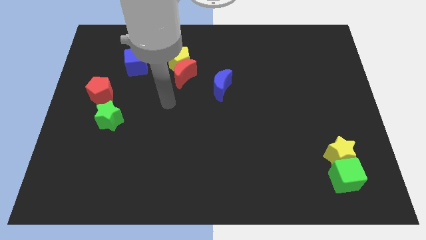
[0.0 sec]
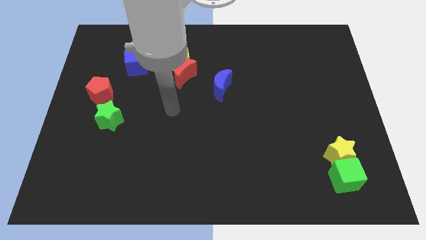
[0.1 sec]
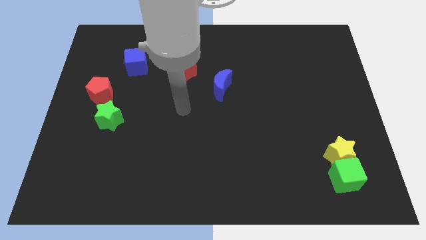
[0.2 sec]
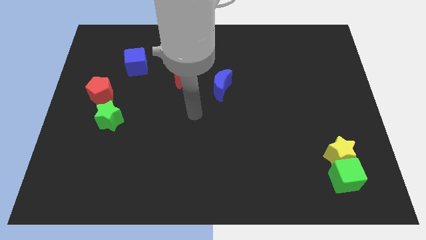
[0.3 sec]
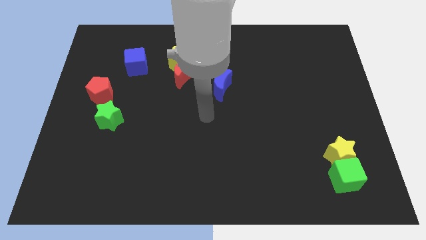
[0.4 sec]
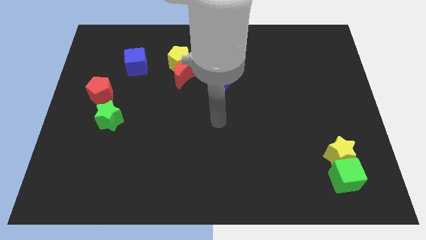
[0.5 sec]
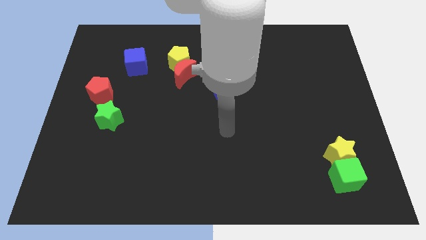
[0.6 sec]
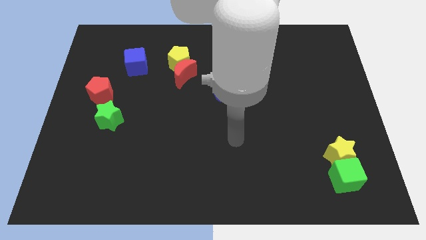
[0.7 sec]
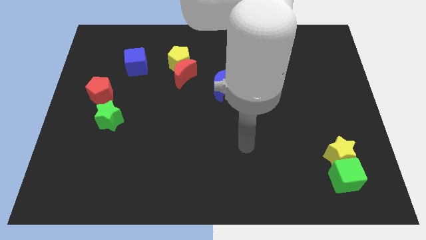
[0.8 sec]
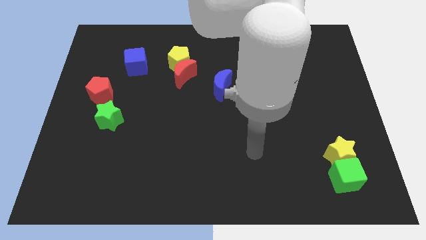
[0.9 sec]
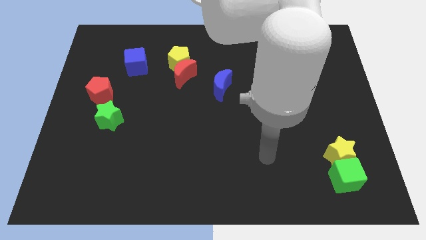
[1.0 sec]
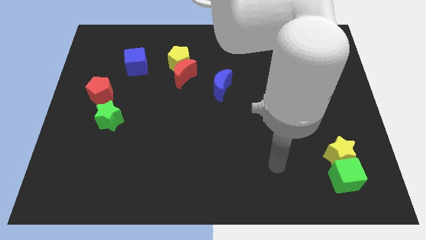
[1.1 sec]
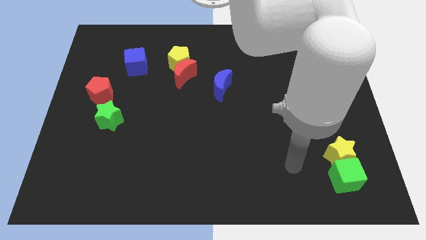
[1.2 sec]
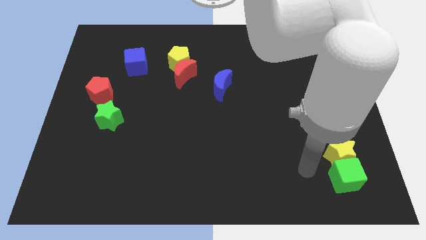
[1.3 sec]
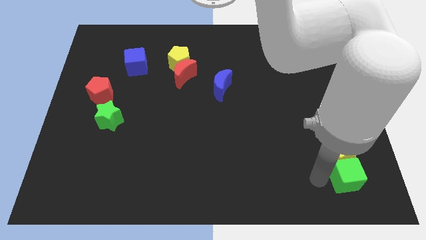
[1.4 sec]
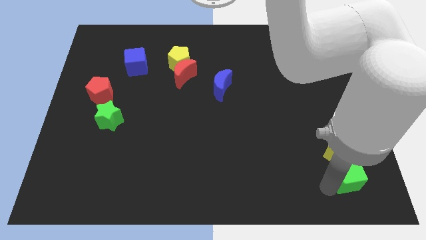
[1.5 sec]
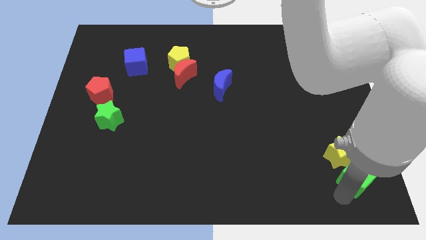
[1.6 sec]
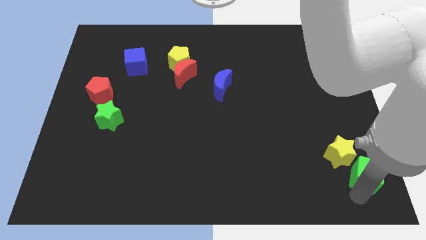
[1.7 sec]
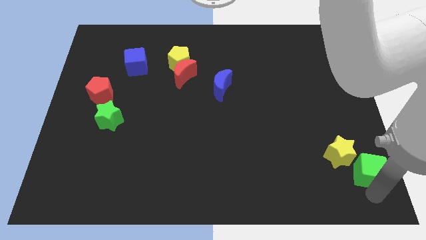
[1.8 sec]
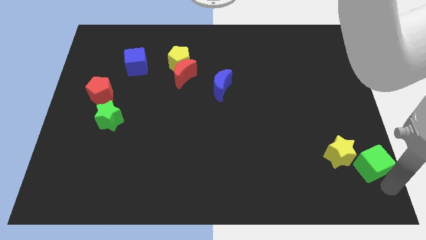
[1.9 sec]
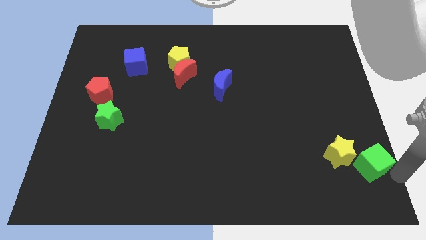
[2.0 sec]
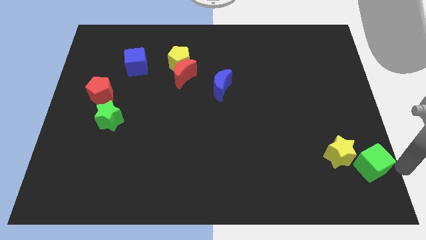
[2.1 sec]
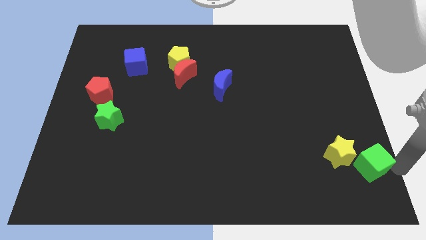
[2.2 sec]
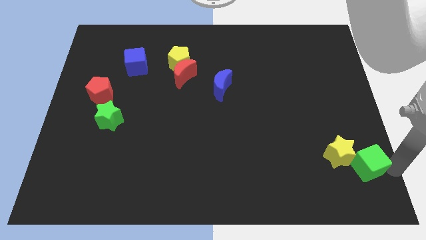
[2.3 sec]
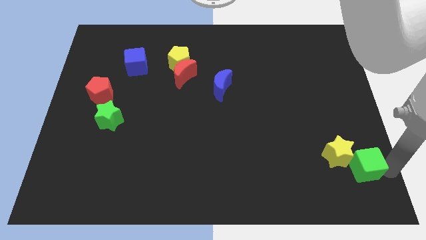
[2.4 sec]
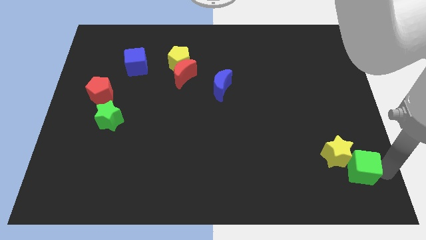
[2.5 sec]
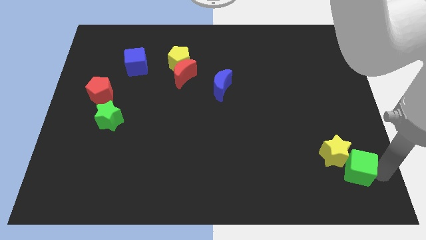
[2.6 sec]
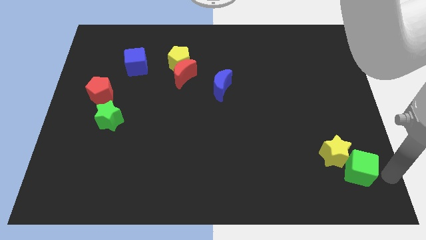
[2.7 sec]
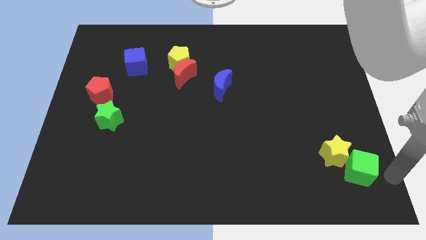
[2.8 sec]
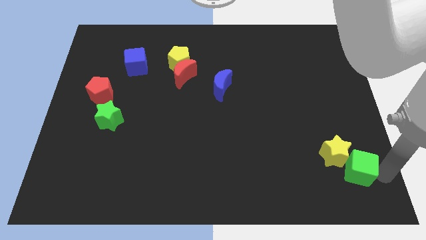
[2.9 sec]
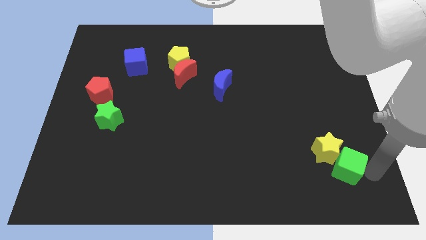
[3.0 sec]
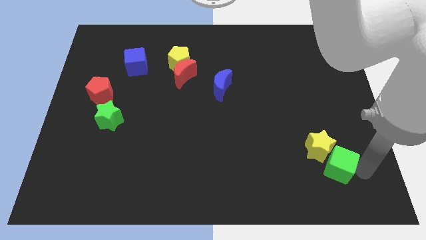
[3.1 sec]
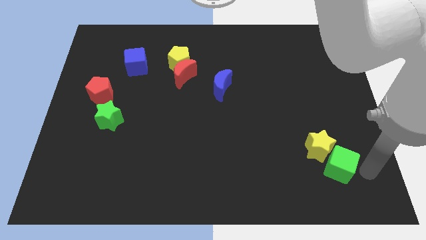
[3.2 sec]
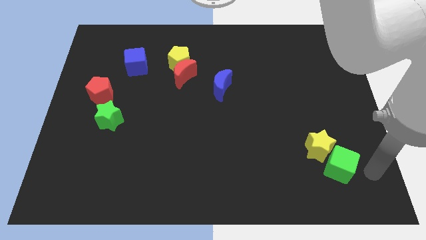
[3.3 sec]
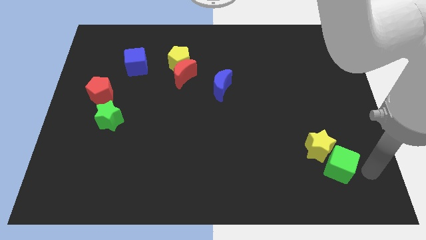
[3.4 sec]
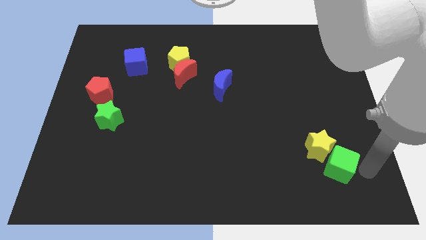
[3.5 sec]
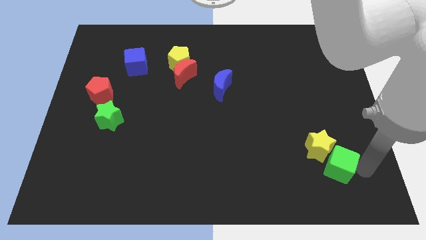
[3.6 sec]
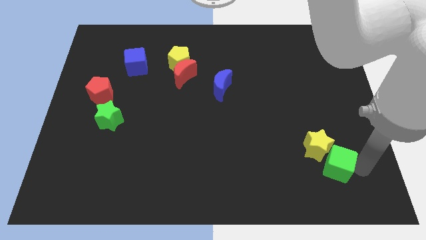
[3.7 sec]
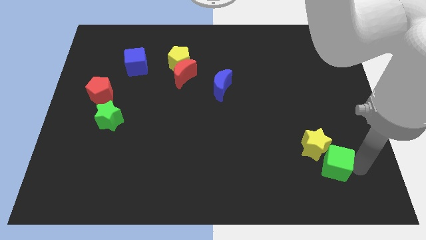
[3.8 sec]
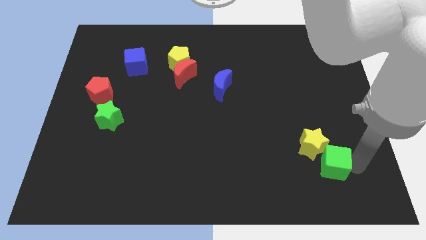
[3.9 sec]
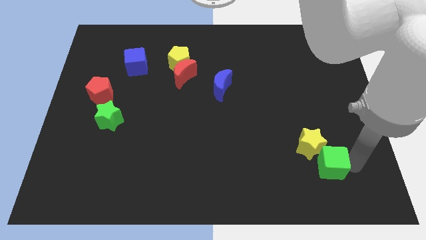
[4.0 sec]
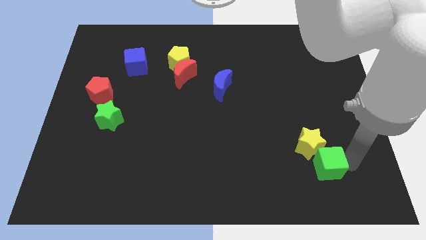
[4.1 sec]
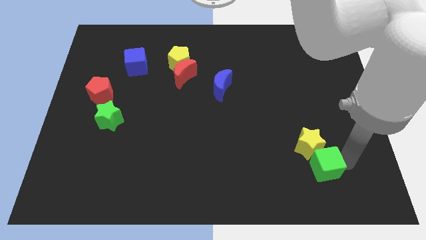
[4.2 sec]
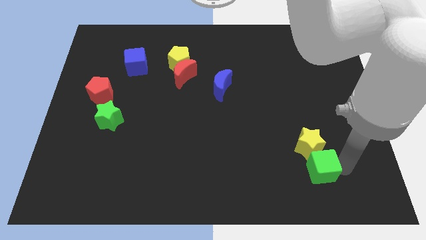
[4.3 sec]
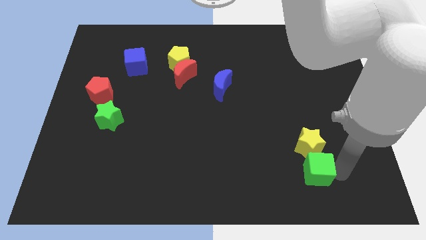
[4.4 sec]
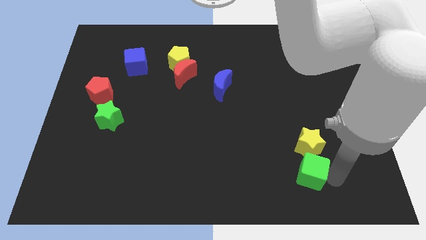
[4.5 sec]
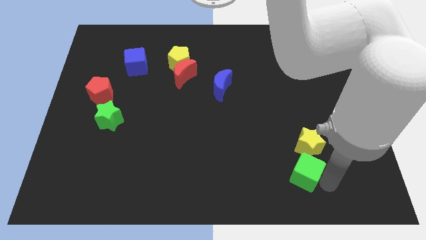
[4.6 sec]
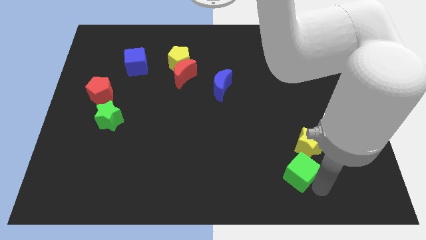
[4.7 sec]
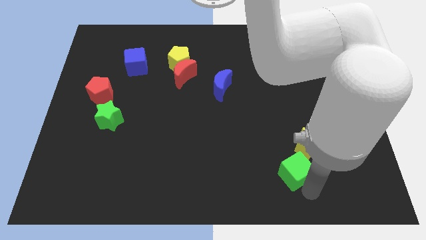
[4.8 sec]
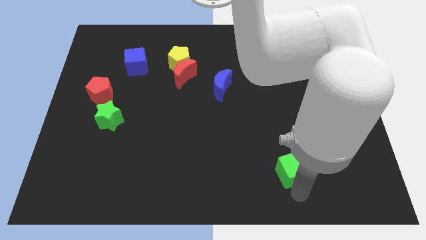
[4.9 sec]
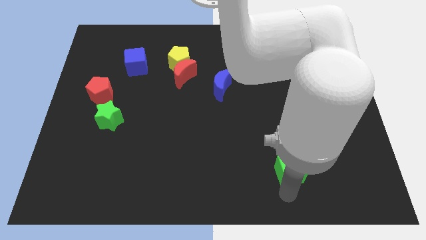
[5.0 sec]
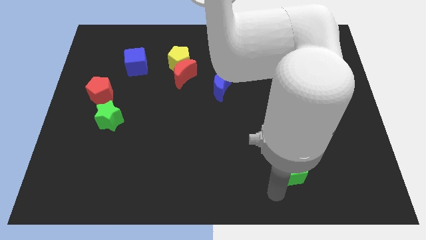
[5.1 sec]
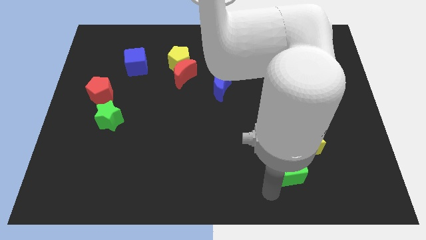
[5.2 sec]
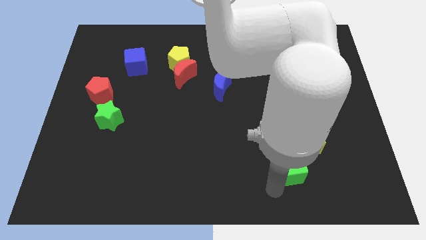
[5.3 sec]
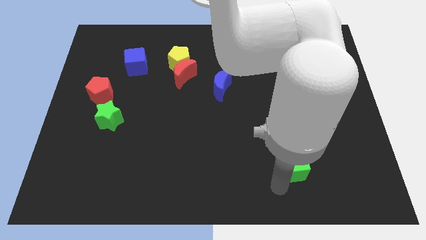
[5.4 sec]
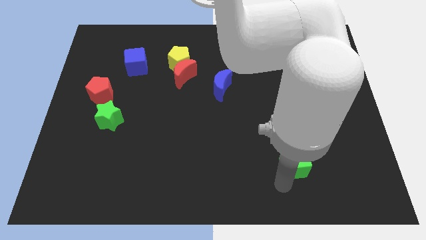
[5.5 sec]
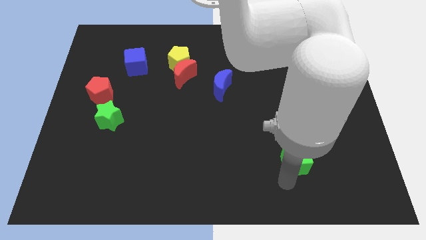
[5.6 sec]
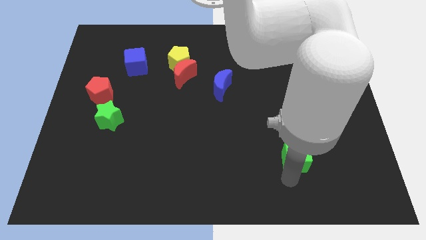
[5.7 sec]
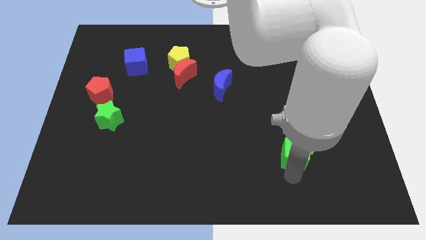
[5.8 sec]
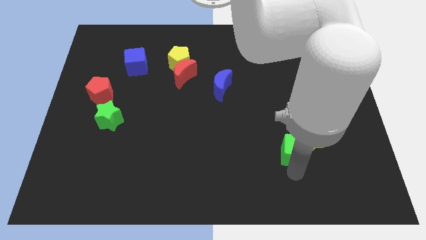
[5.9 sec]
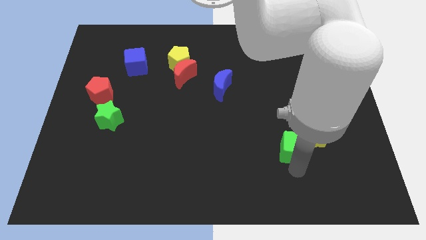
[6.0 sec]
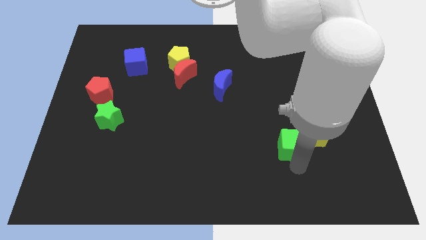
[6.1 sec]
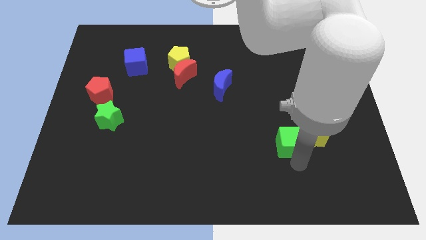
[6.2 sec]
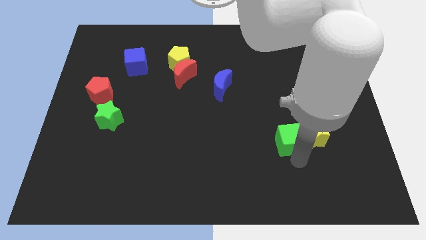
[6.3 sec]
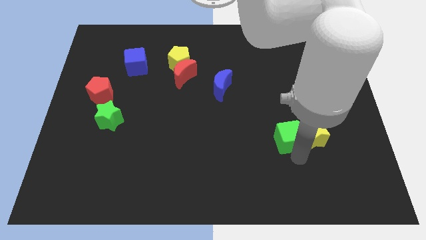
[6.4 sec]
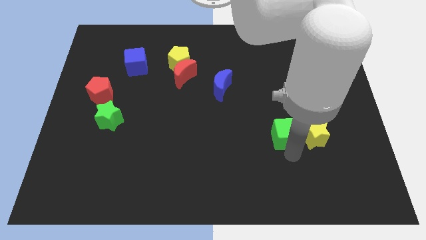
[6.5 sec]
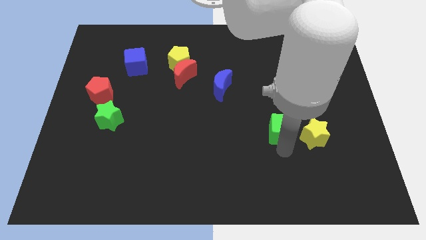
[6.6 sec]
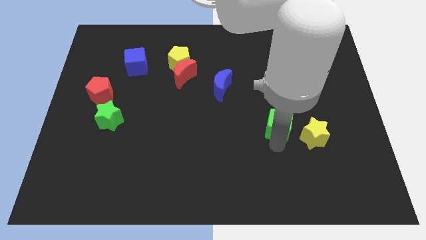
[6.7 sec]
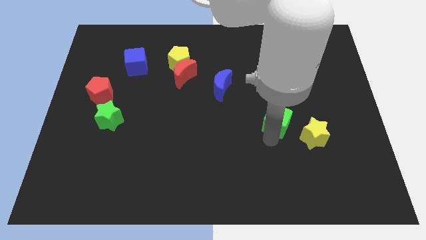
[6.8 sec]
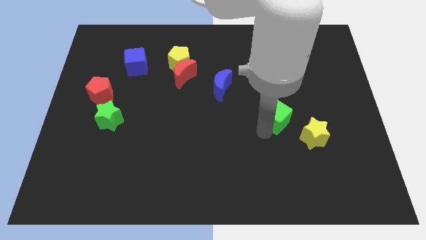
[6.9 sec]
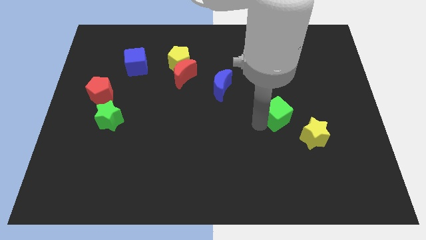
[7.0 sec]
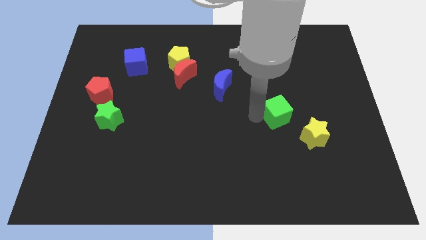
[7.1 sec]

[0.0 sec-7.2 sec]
push the green cube slightly up

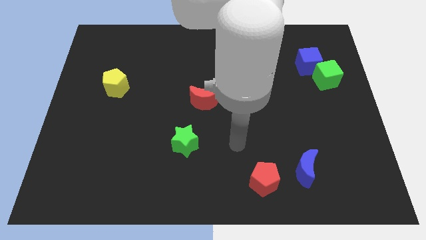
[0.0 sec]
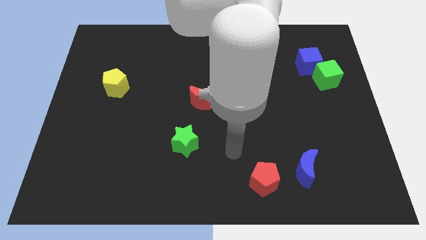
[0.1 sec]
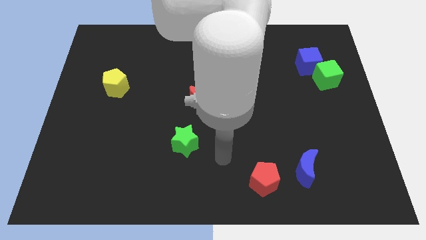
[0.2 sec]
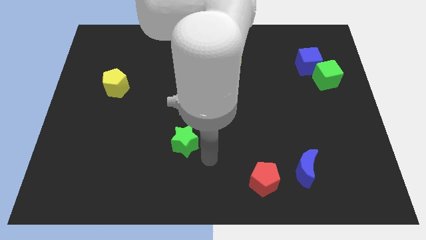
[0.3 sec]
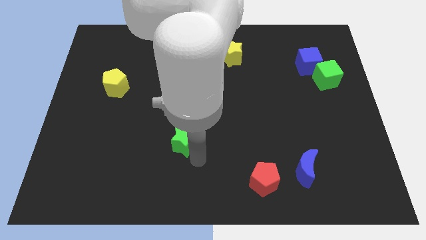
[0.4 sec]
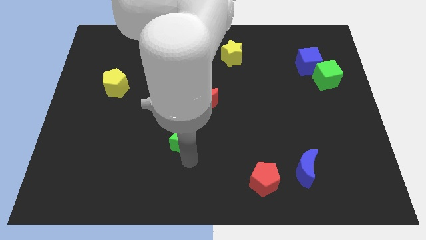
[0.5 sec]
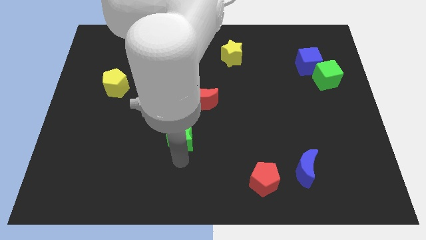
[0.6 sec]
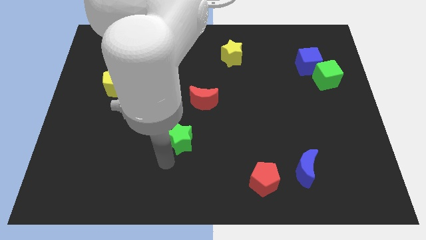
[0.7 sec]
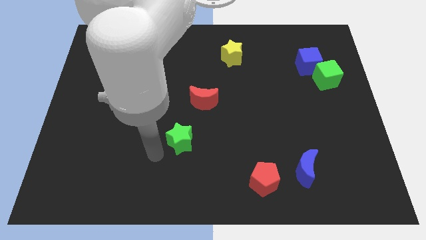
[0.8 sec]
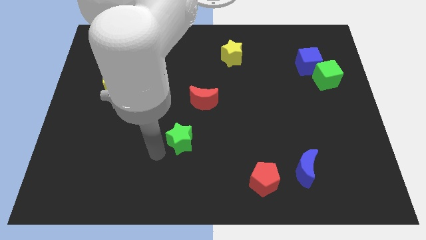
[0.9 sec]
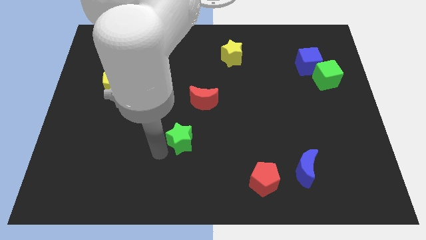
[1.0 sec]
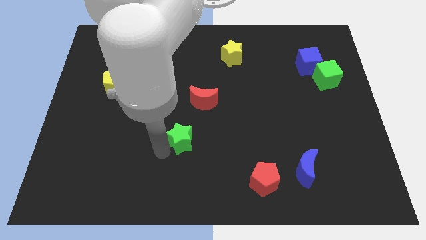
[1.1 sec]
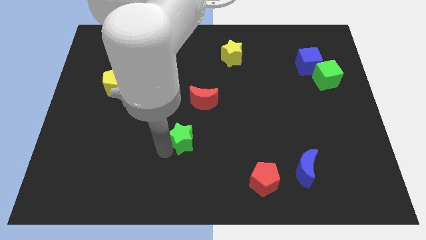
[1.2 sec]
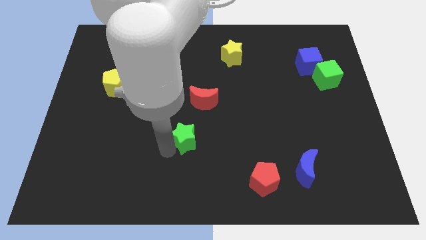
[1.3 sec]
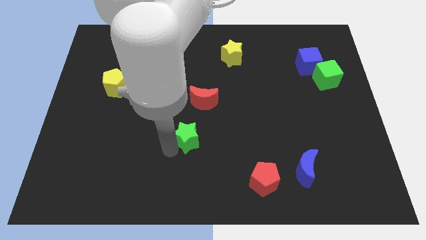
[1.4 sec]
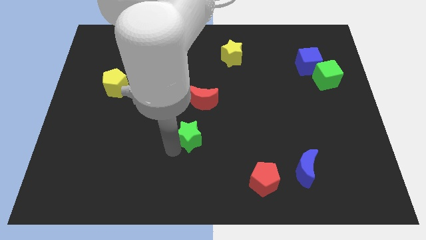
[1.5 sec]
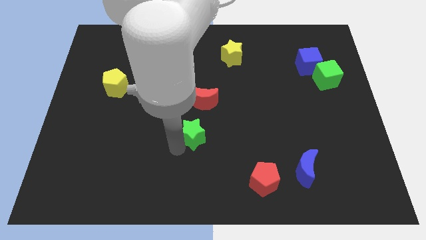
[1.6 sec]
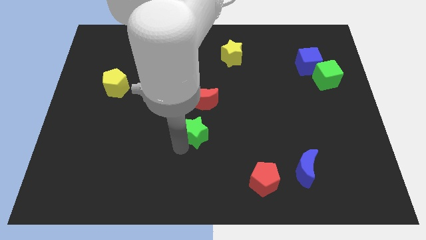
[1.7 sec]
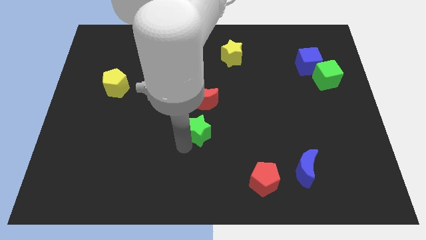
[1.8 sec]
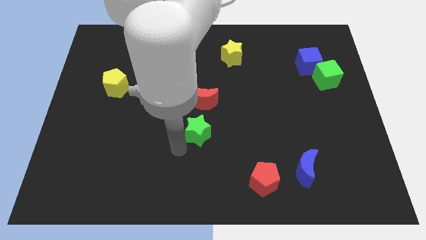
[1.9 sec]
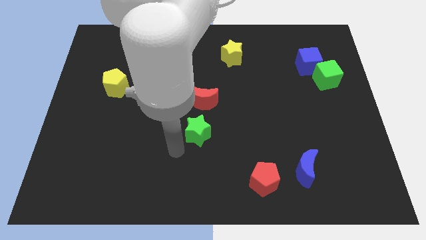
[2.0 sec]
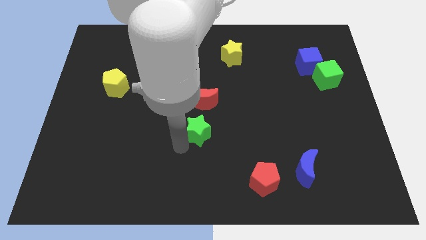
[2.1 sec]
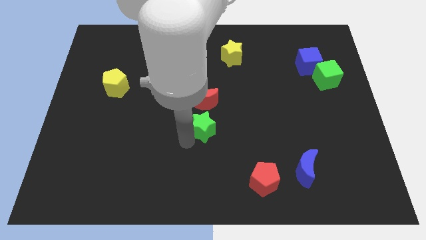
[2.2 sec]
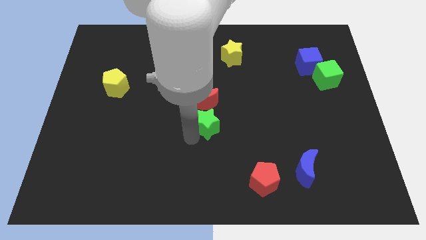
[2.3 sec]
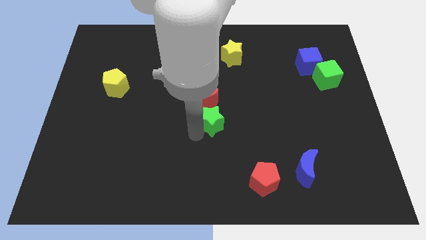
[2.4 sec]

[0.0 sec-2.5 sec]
slightly push the green star upwards and to the right diagonally
